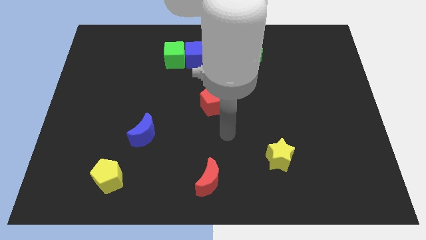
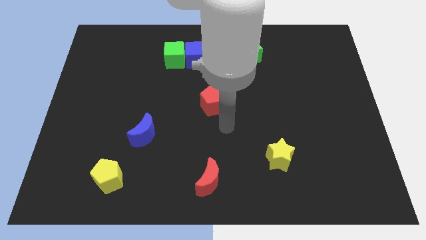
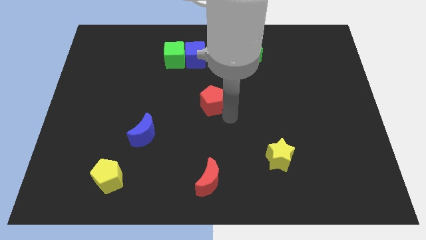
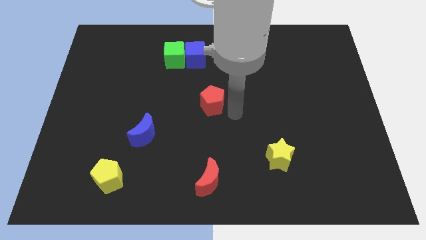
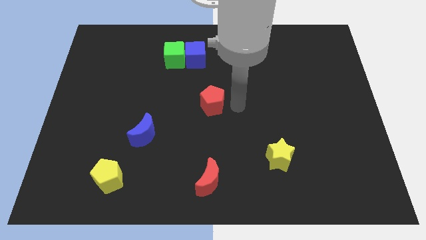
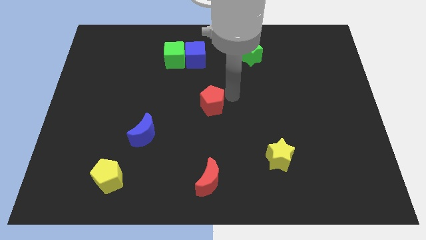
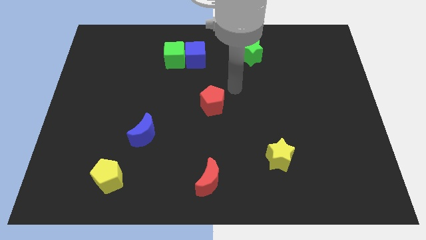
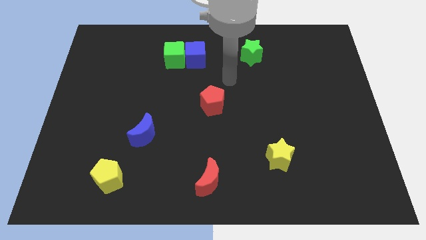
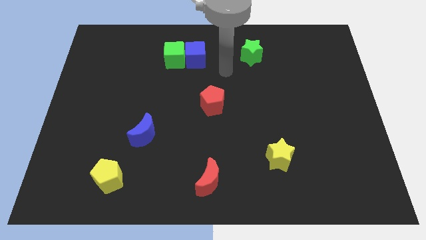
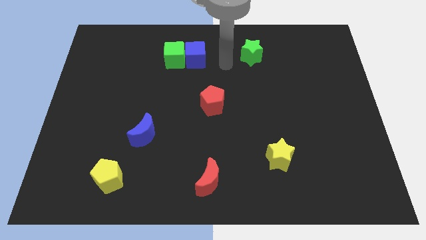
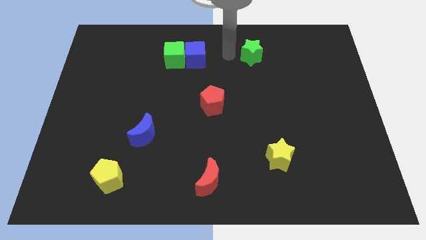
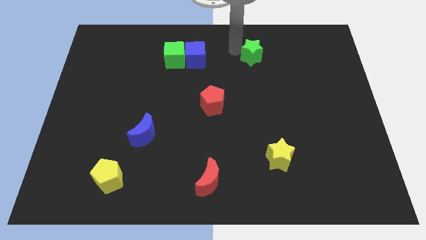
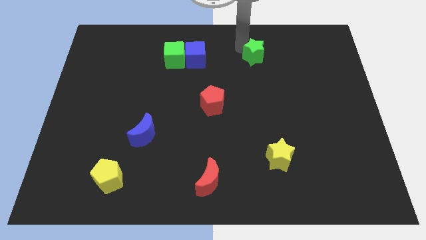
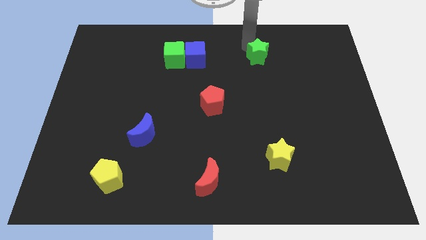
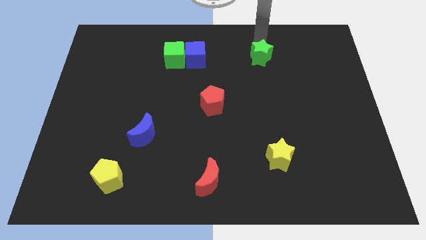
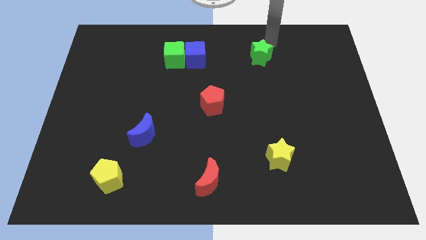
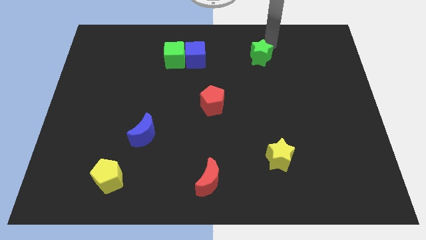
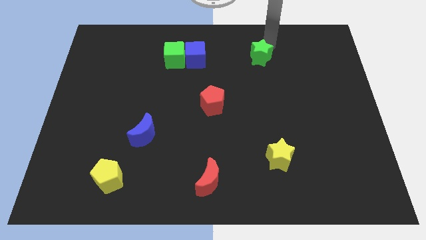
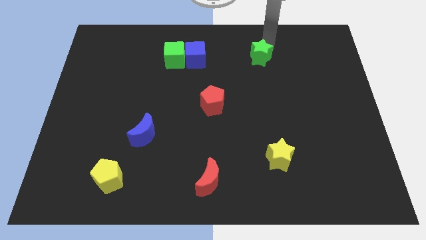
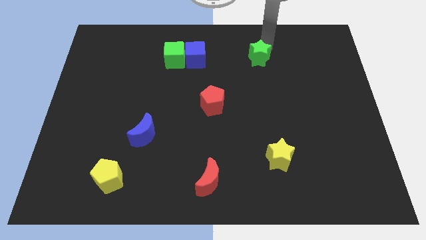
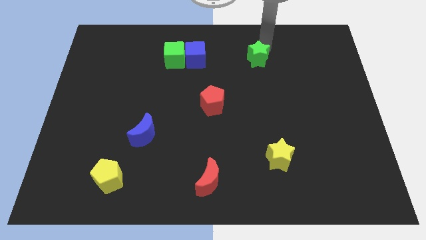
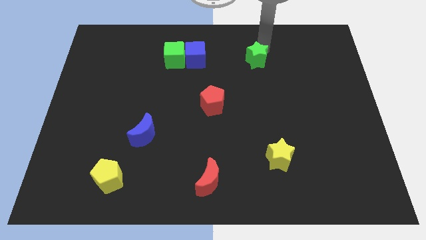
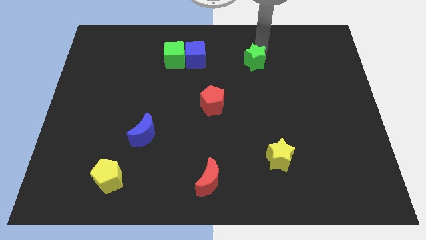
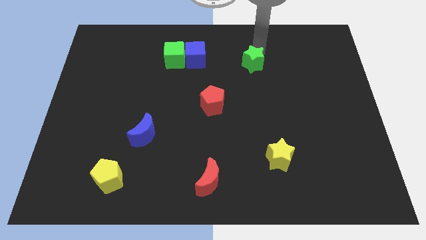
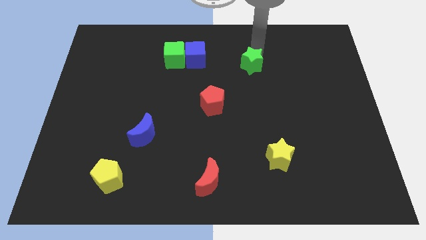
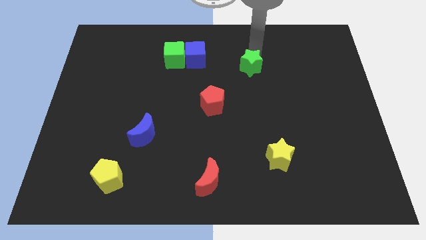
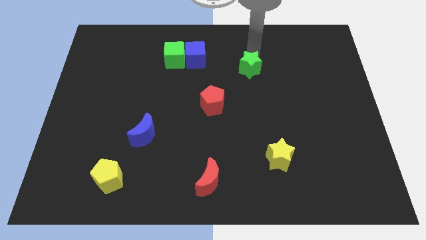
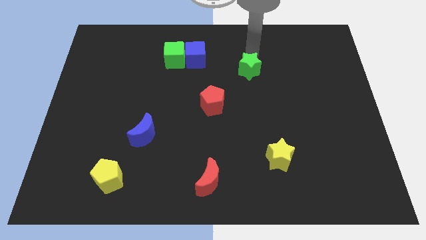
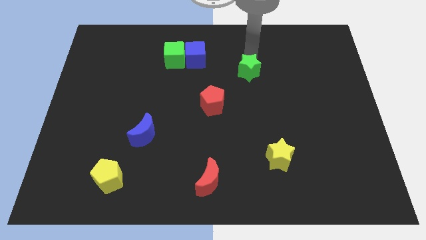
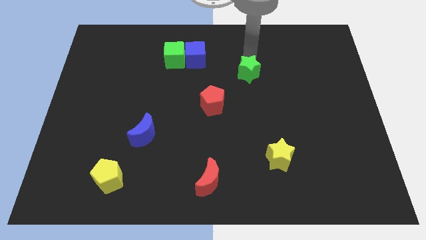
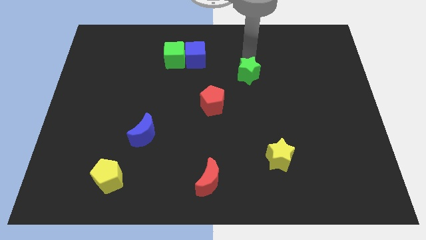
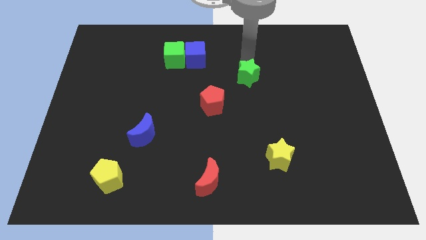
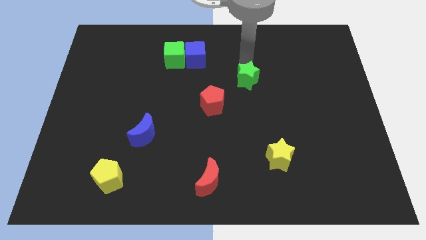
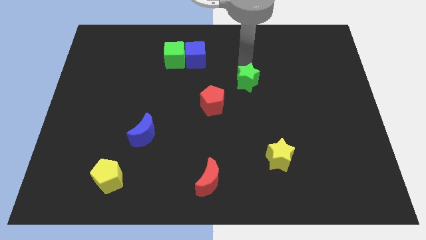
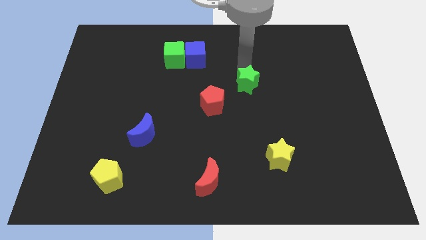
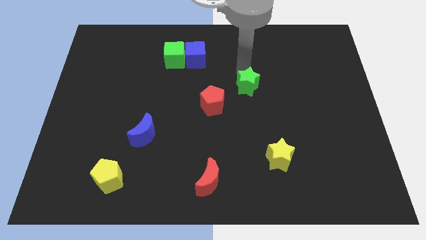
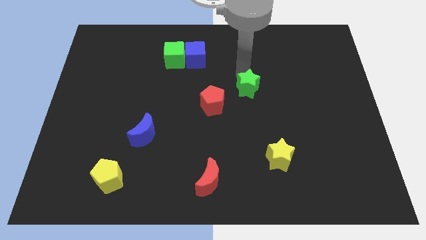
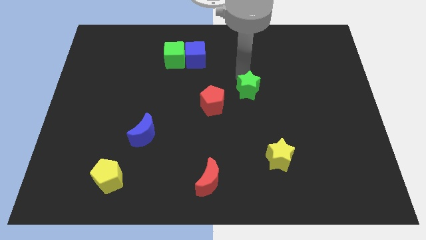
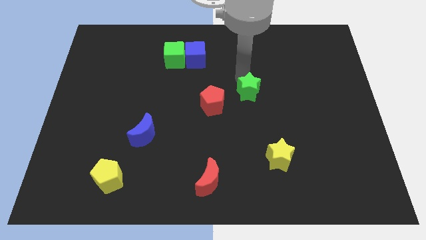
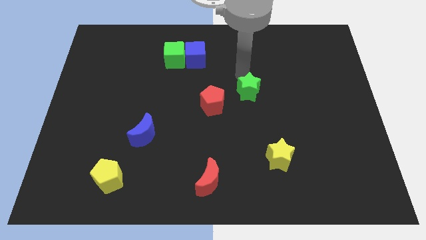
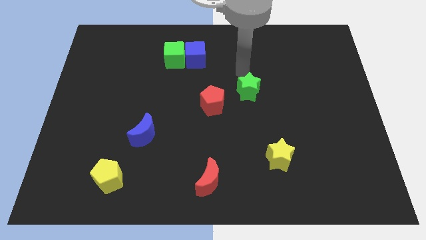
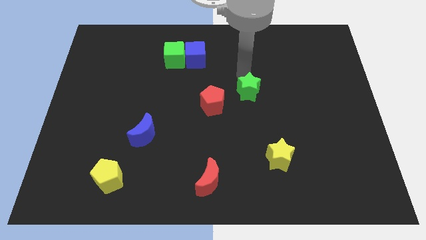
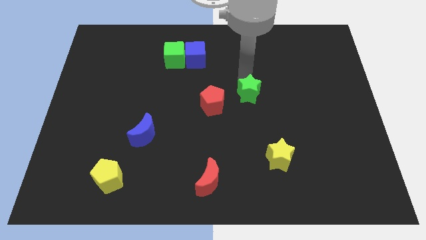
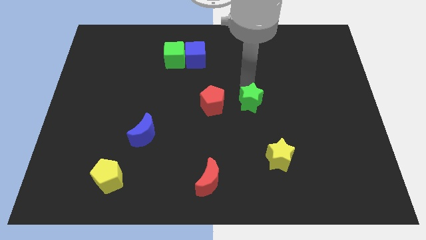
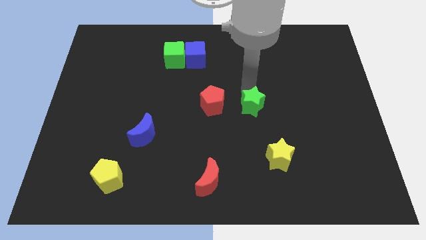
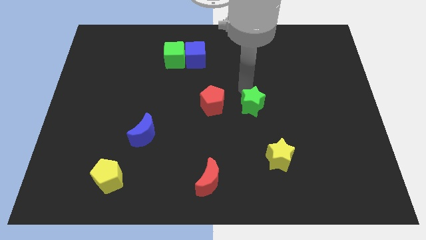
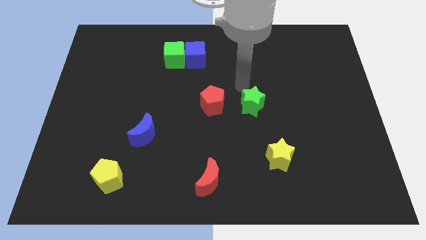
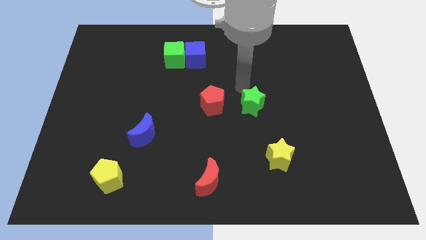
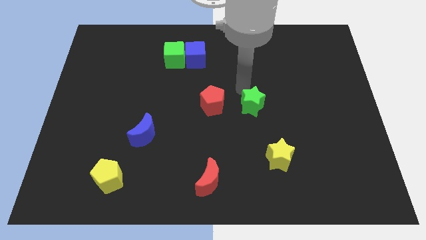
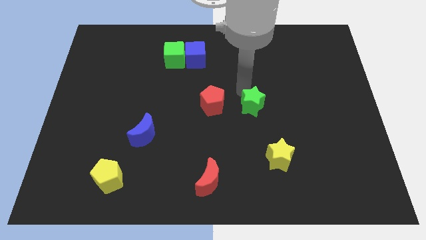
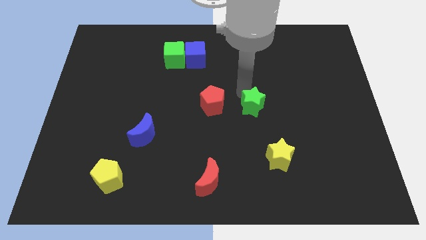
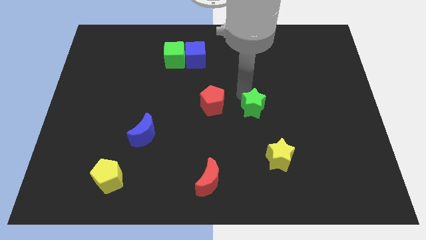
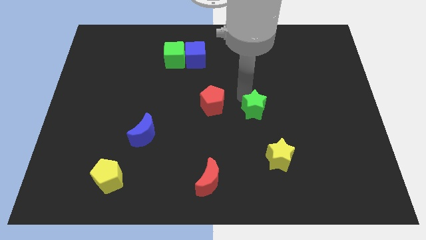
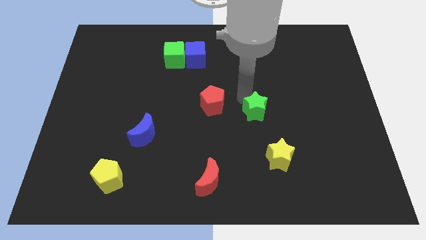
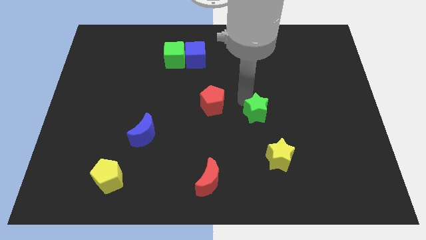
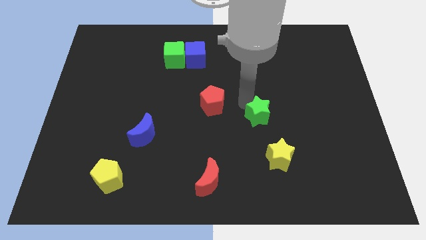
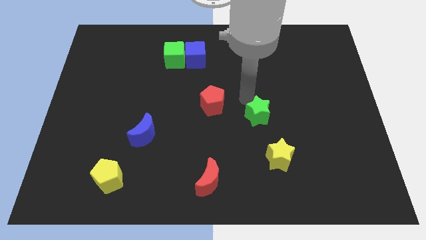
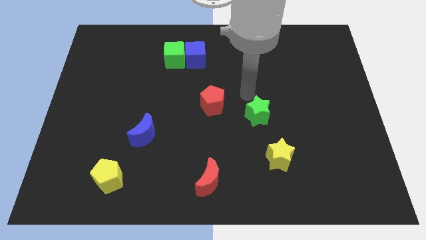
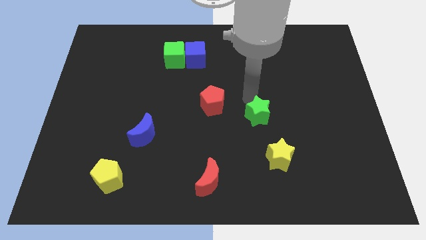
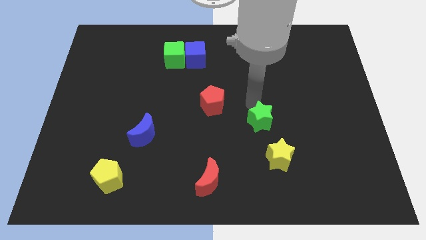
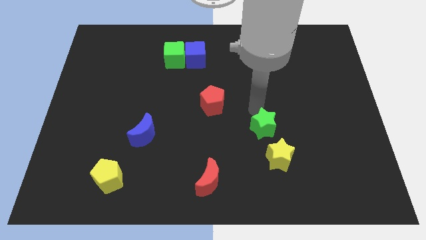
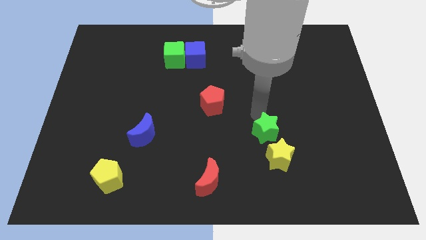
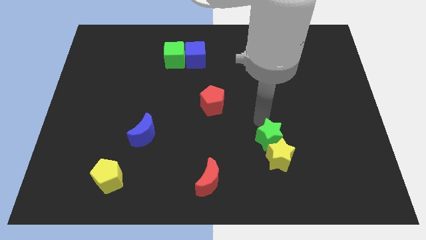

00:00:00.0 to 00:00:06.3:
move the green star to the yellow star
